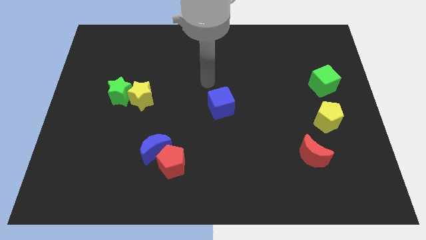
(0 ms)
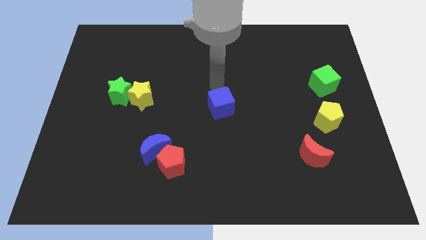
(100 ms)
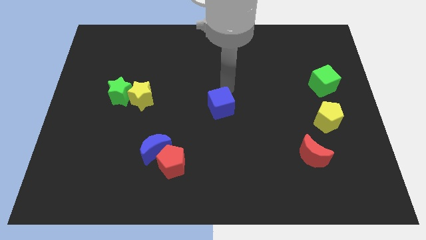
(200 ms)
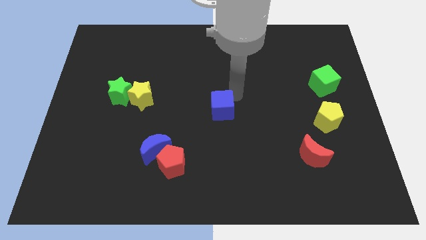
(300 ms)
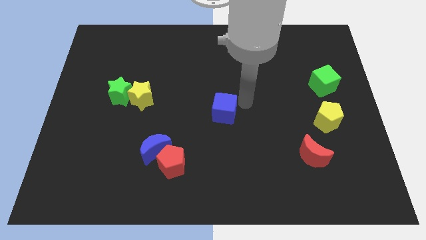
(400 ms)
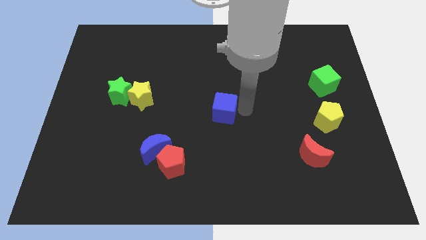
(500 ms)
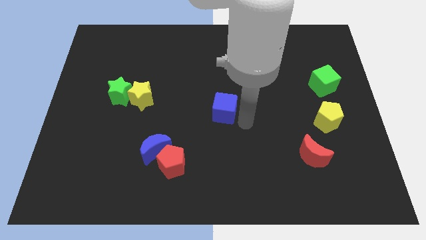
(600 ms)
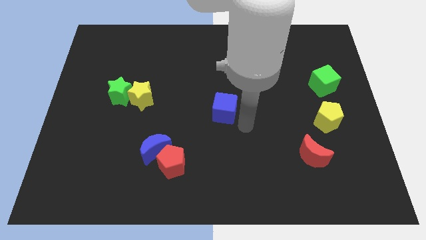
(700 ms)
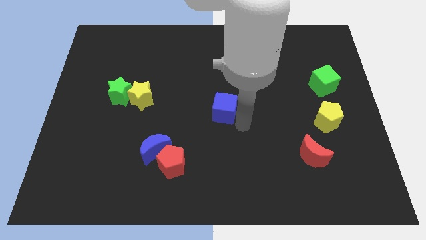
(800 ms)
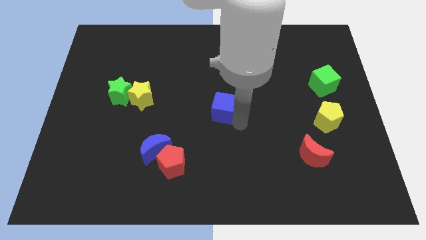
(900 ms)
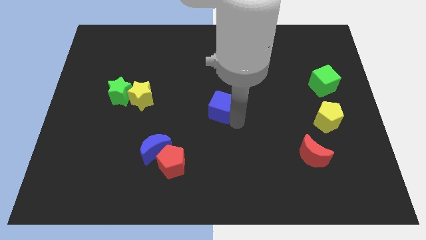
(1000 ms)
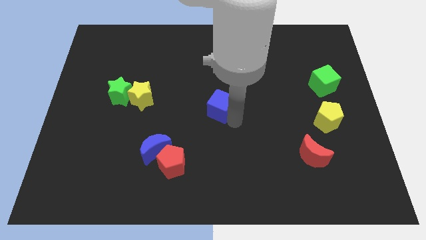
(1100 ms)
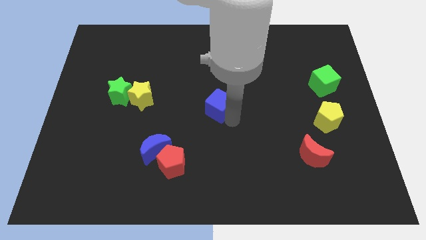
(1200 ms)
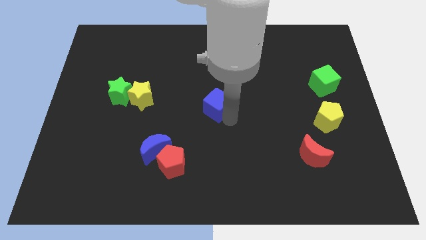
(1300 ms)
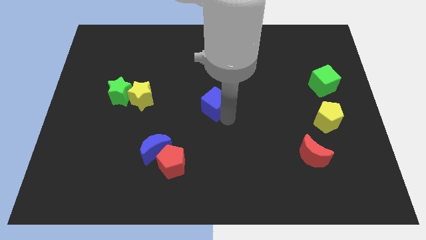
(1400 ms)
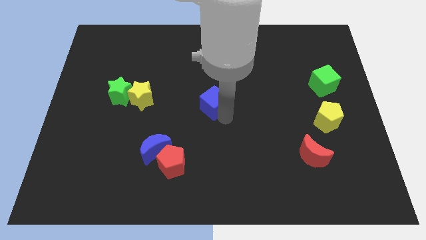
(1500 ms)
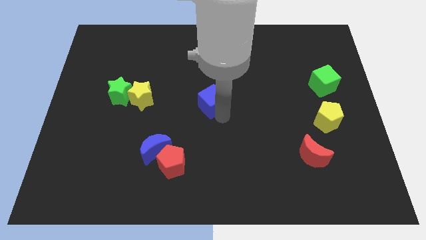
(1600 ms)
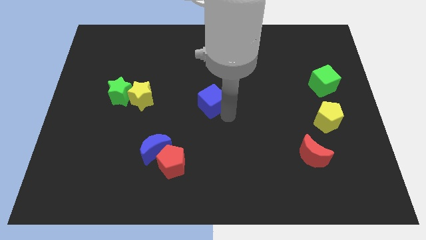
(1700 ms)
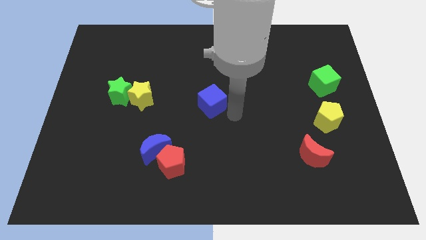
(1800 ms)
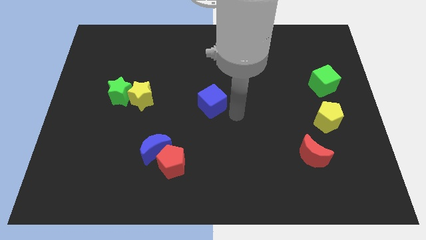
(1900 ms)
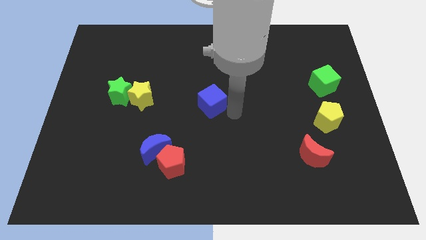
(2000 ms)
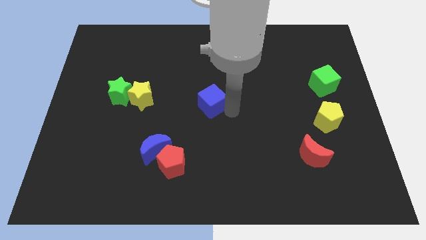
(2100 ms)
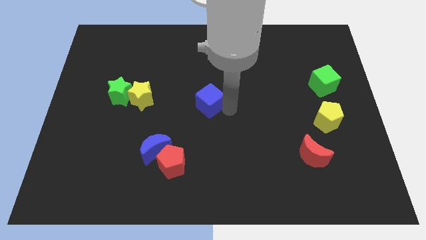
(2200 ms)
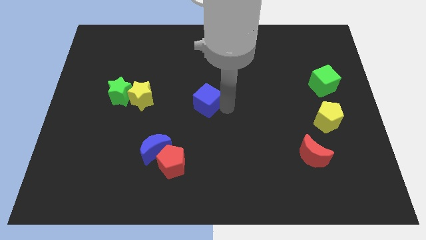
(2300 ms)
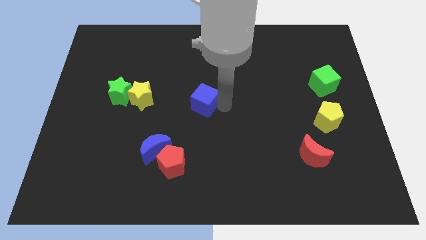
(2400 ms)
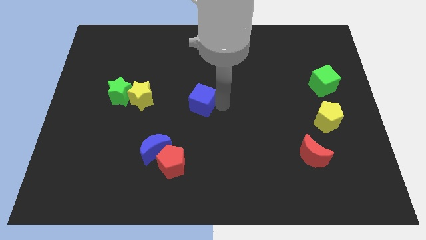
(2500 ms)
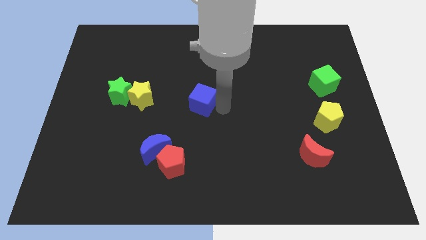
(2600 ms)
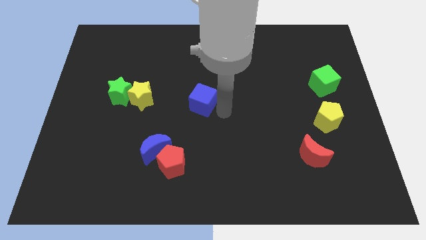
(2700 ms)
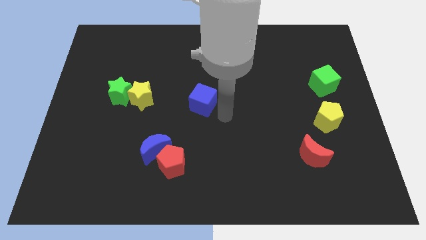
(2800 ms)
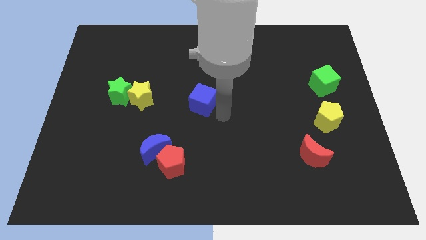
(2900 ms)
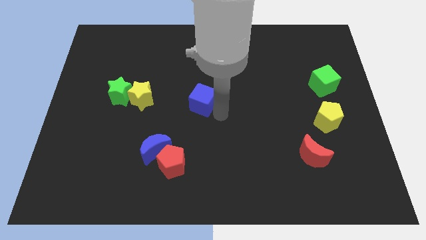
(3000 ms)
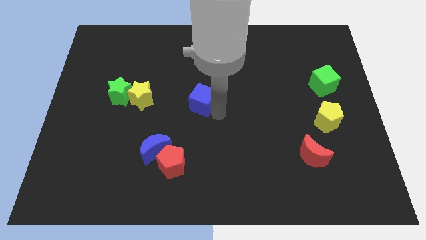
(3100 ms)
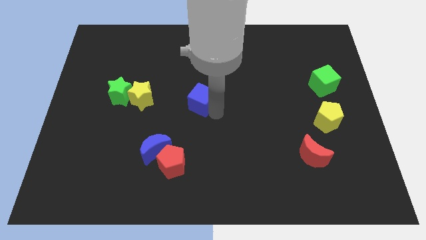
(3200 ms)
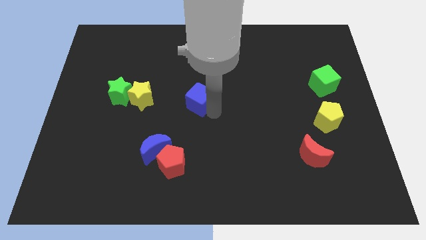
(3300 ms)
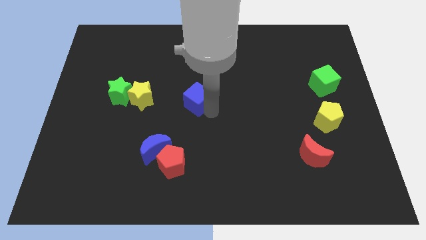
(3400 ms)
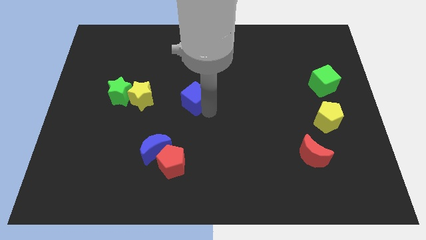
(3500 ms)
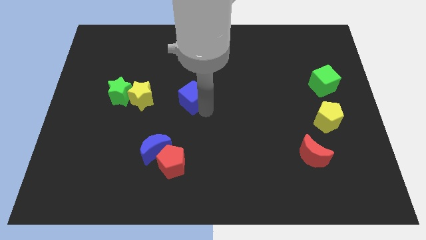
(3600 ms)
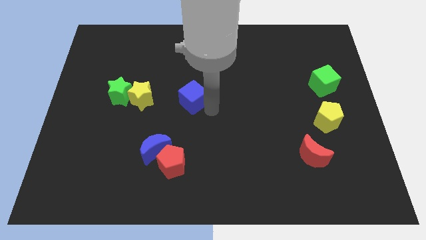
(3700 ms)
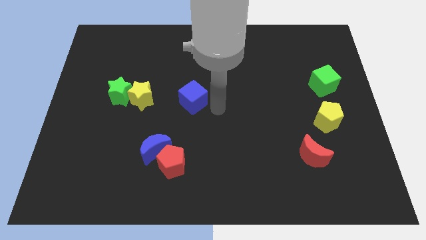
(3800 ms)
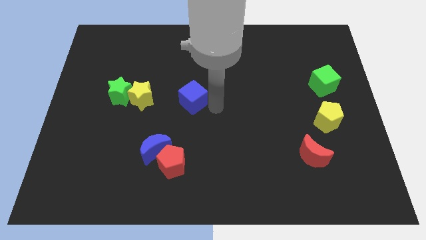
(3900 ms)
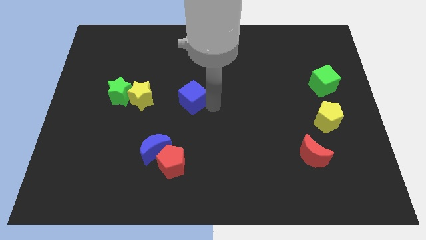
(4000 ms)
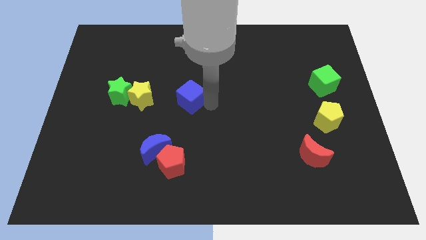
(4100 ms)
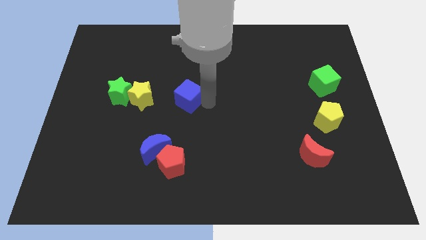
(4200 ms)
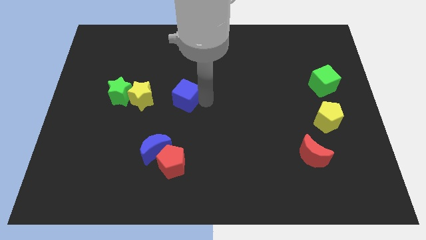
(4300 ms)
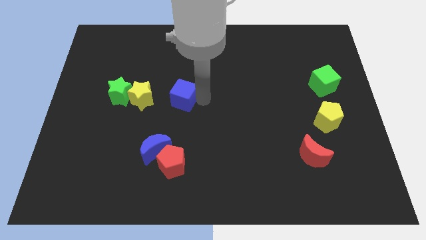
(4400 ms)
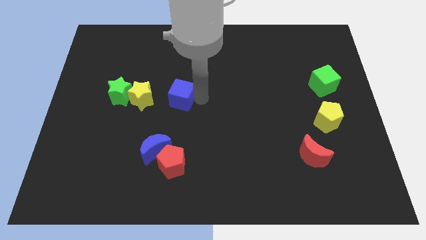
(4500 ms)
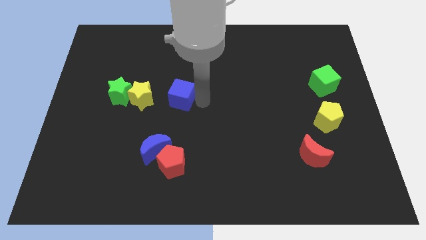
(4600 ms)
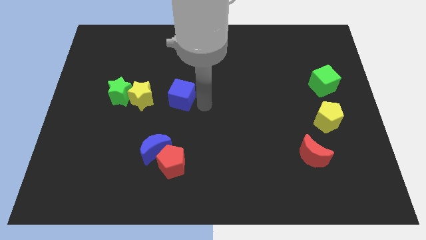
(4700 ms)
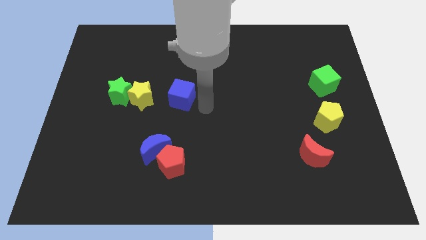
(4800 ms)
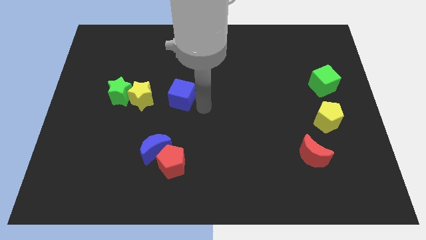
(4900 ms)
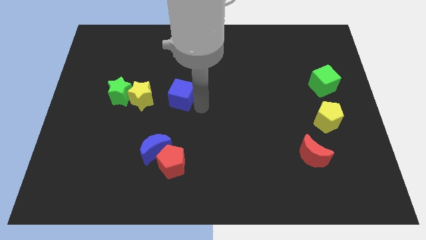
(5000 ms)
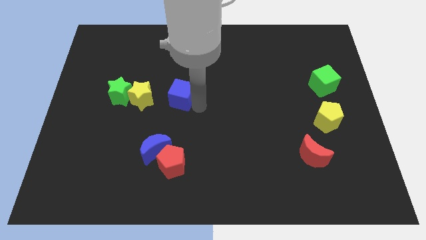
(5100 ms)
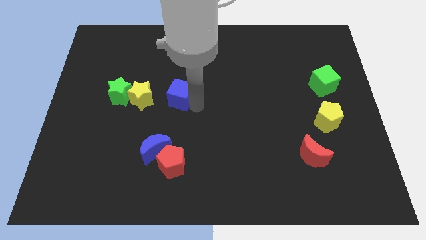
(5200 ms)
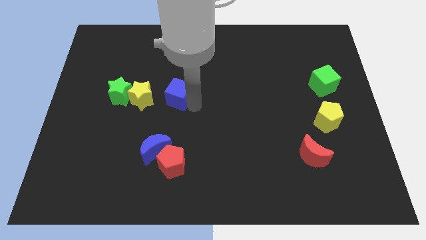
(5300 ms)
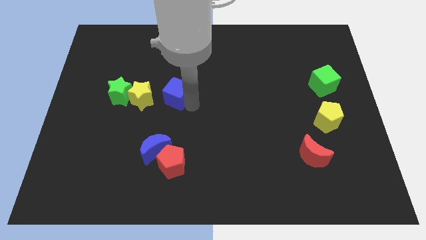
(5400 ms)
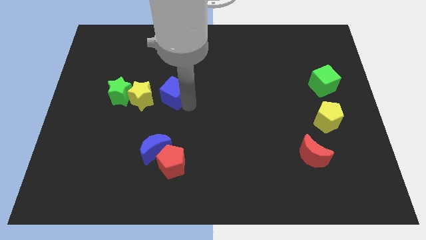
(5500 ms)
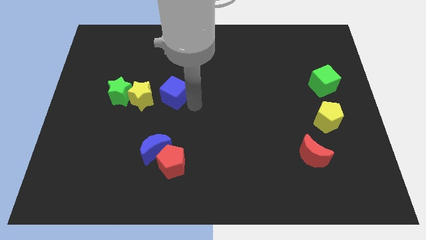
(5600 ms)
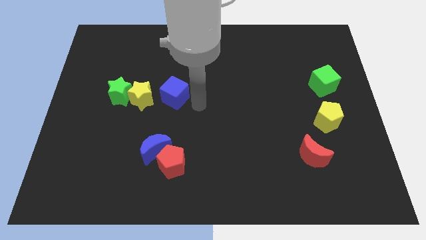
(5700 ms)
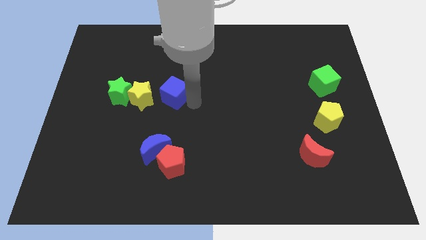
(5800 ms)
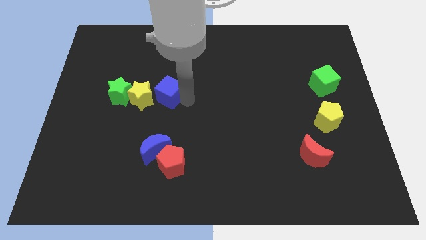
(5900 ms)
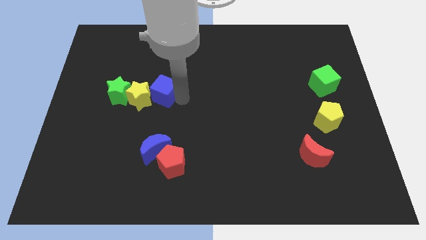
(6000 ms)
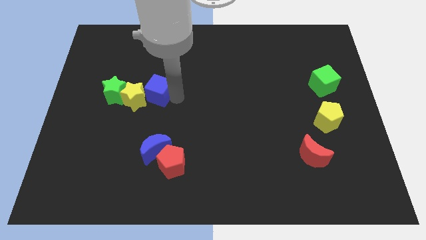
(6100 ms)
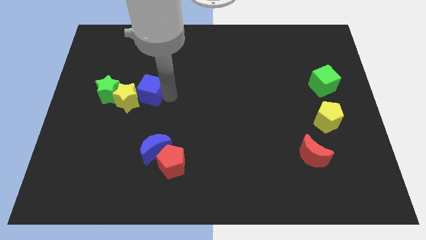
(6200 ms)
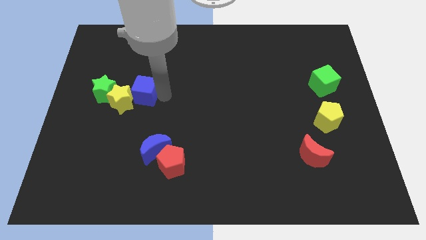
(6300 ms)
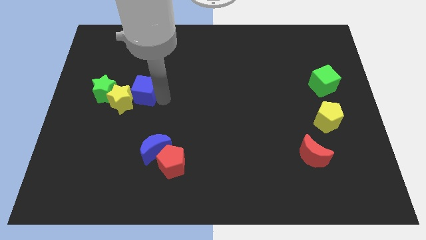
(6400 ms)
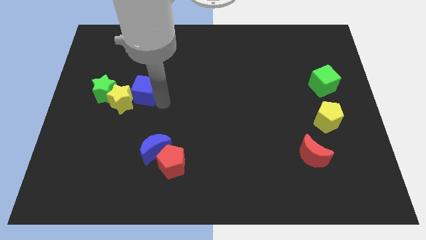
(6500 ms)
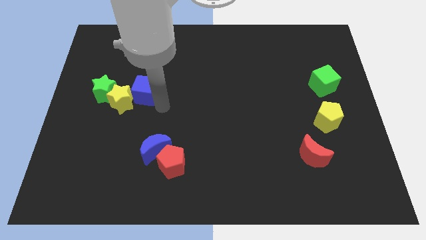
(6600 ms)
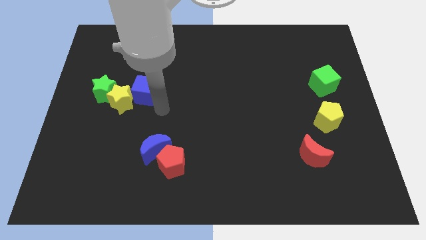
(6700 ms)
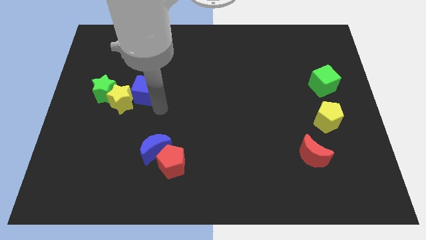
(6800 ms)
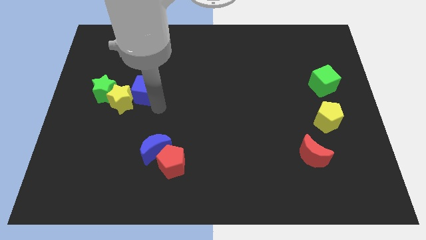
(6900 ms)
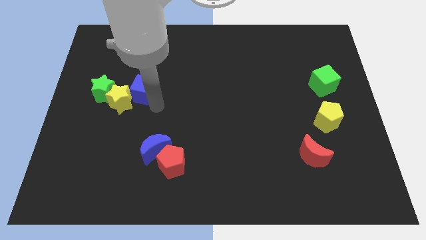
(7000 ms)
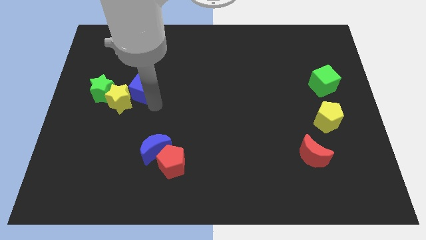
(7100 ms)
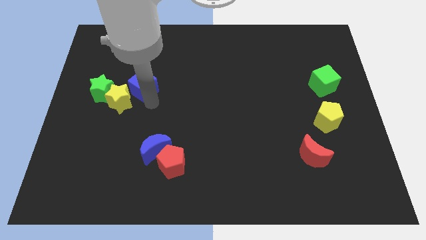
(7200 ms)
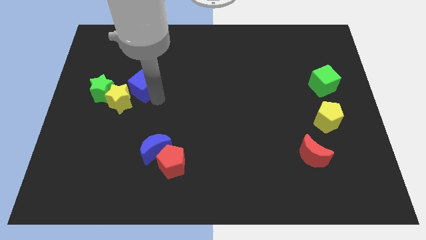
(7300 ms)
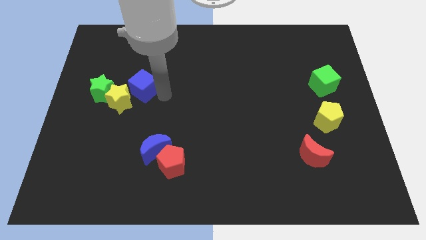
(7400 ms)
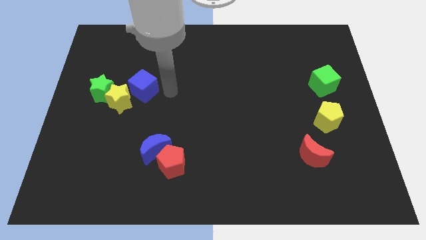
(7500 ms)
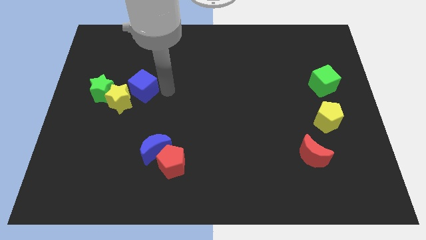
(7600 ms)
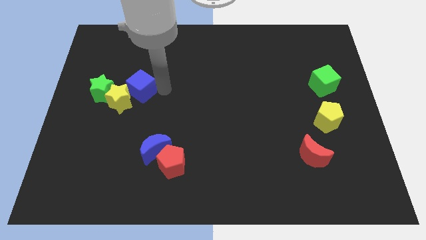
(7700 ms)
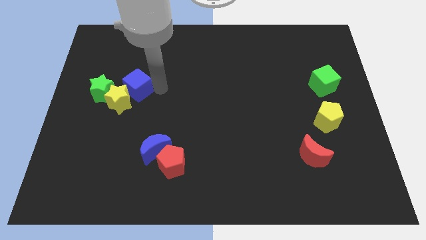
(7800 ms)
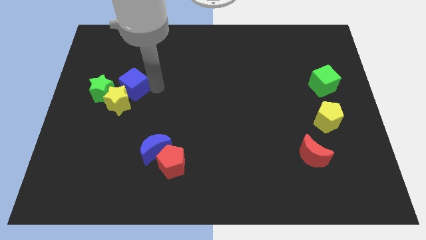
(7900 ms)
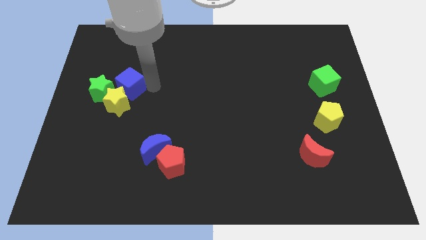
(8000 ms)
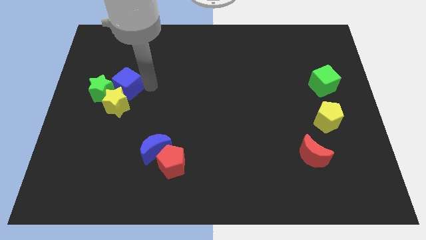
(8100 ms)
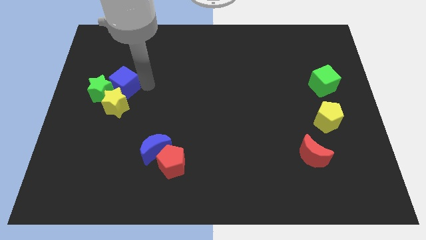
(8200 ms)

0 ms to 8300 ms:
put the blue cube to the top left of the yellow star
